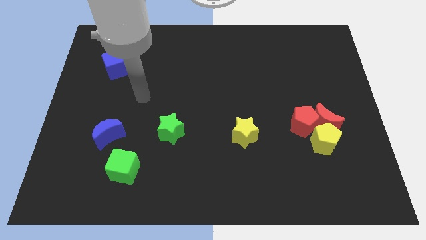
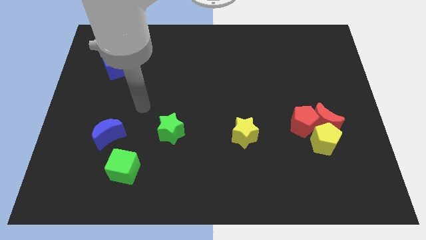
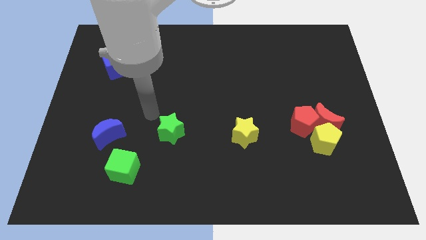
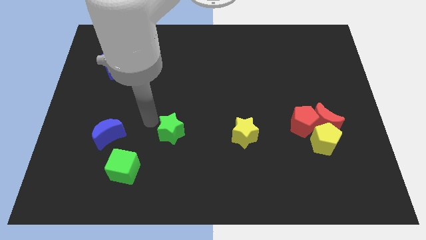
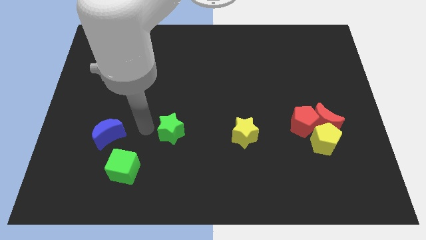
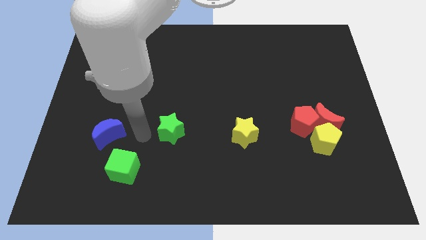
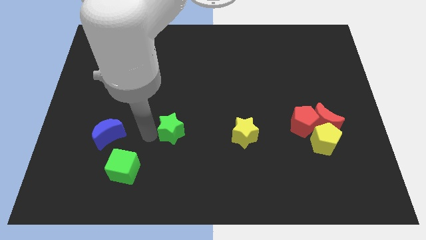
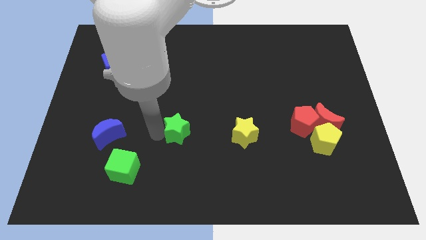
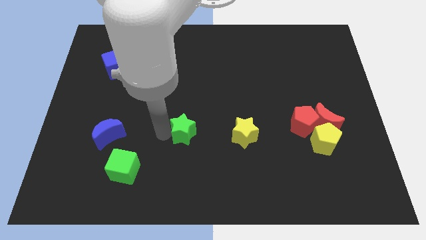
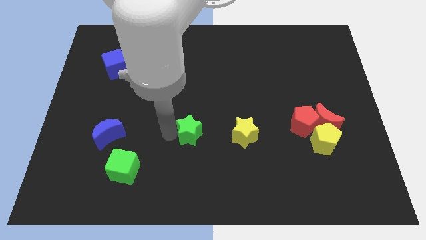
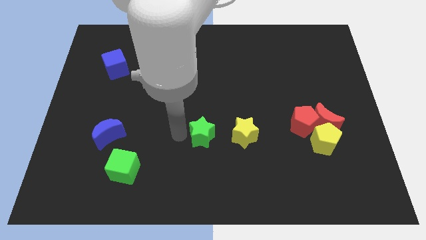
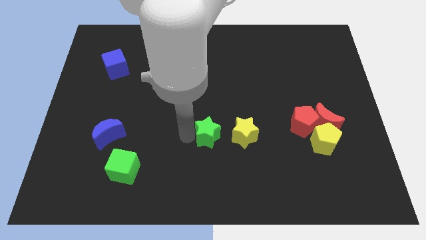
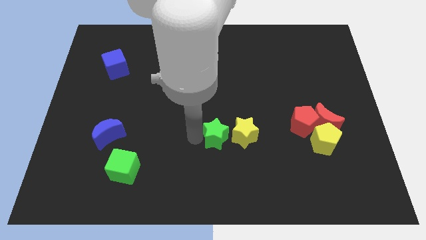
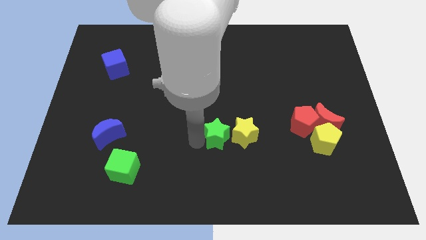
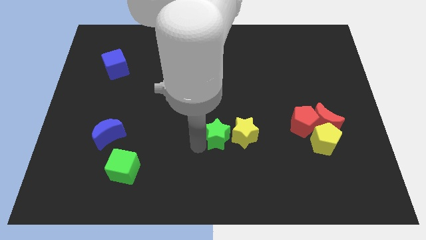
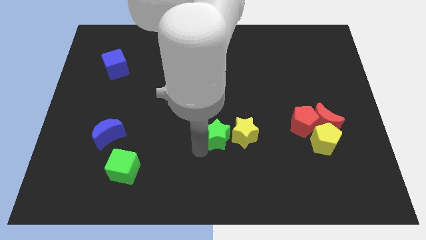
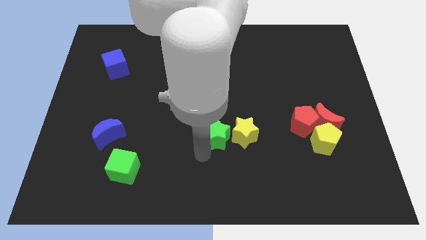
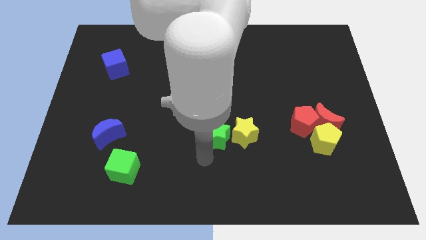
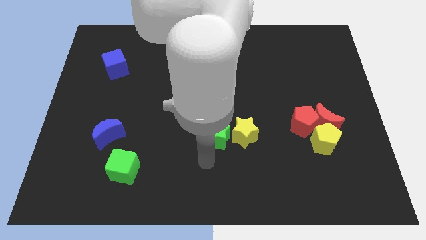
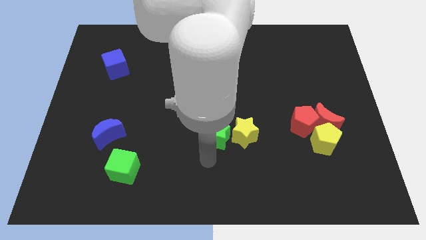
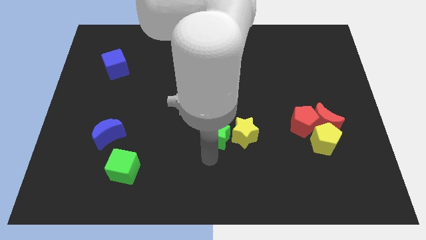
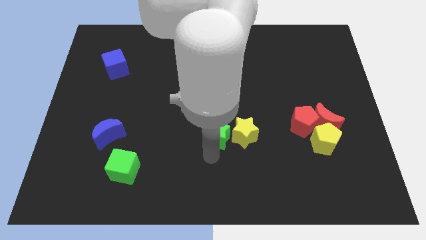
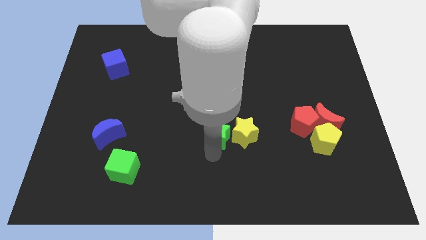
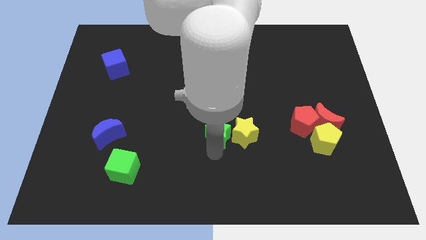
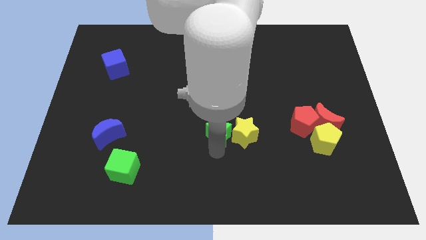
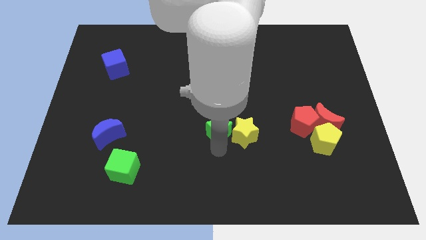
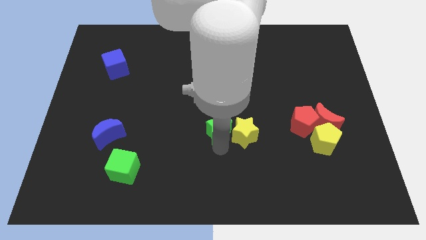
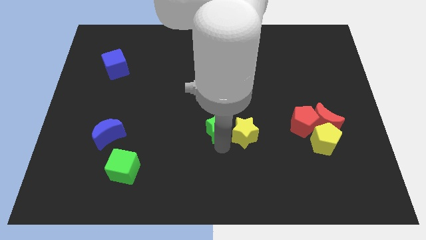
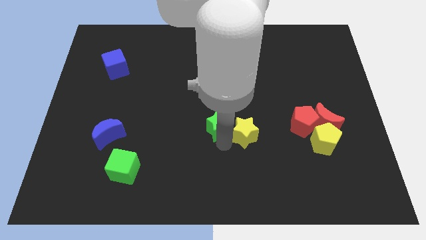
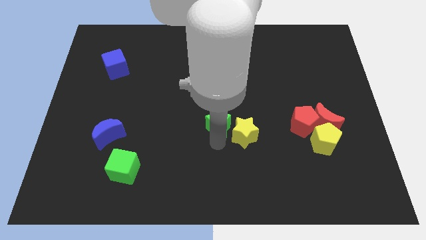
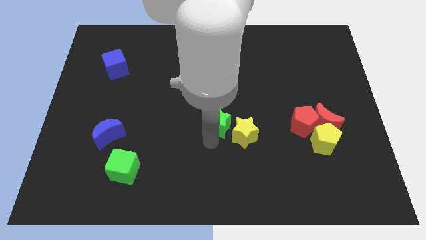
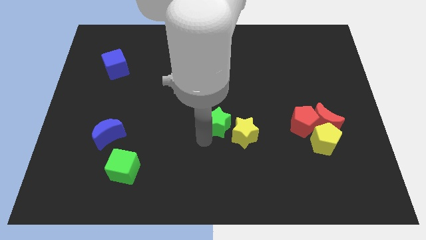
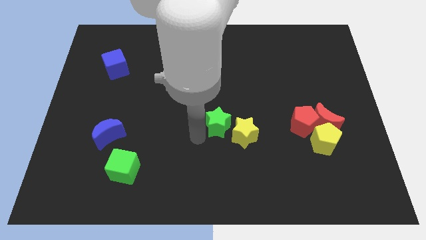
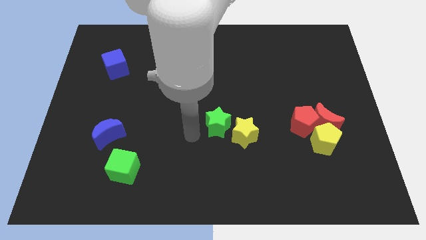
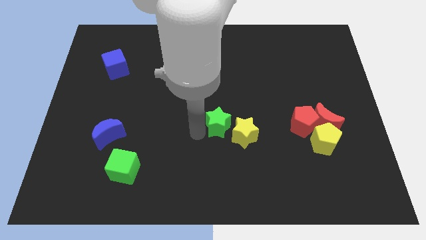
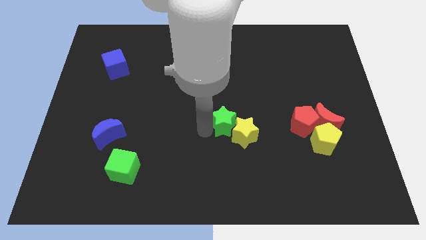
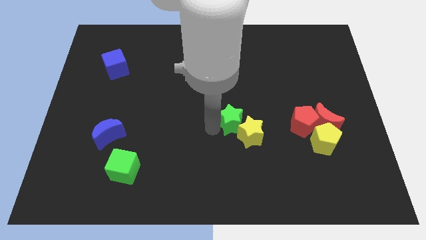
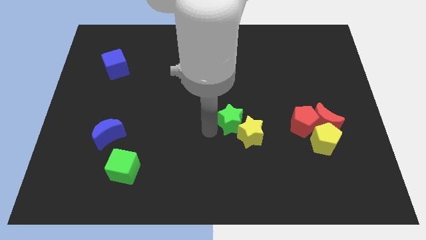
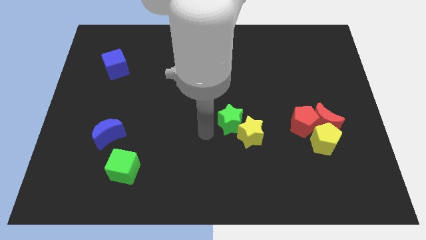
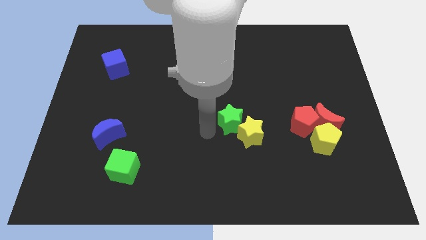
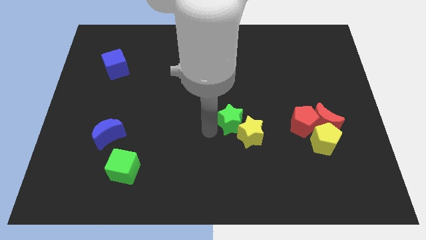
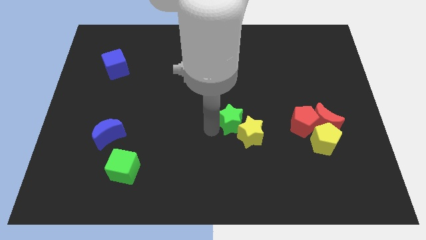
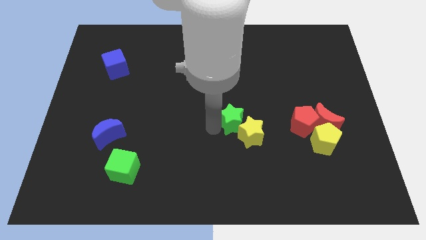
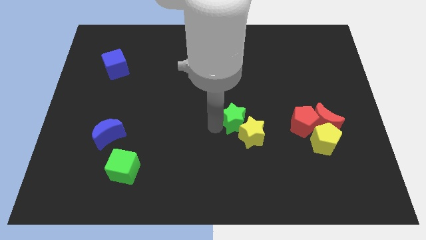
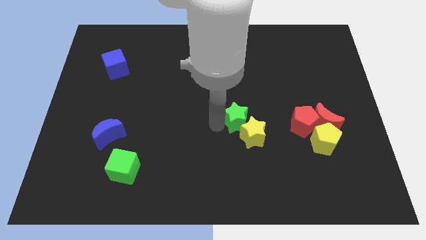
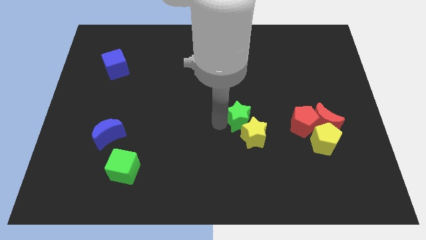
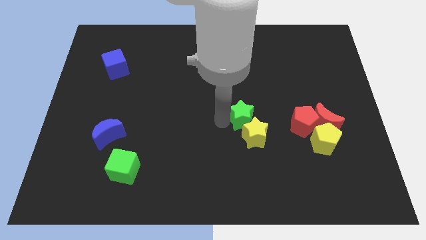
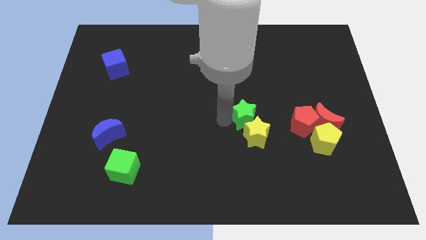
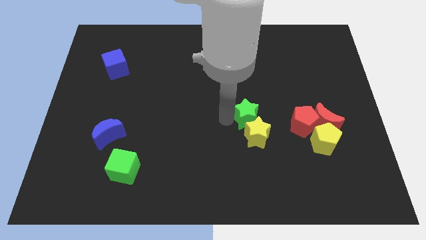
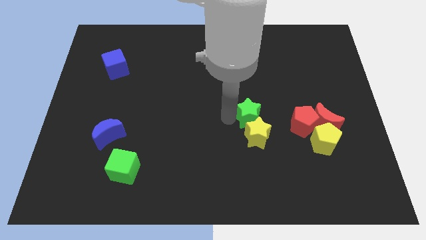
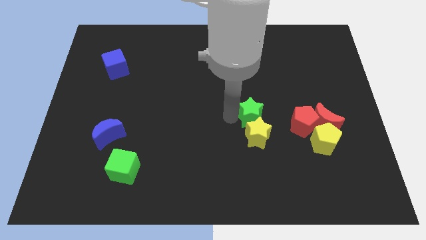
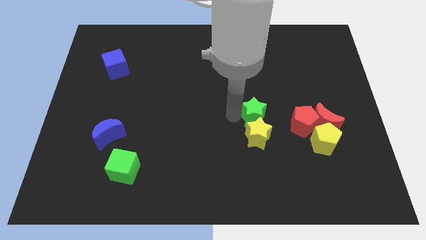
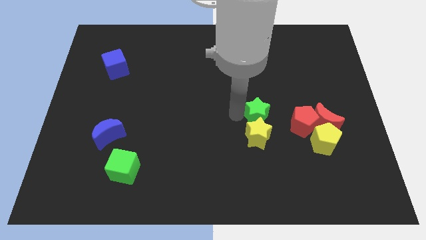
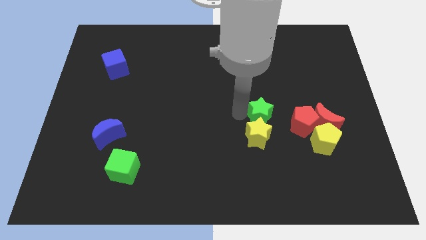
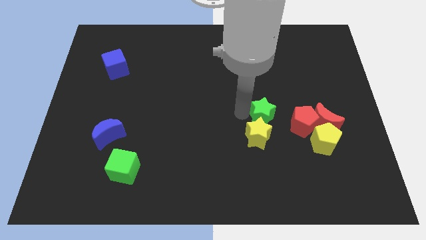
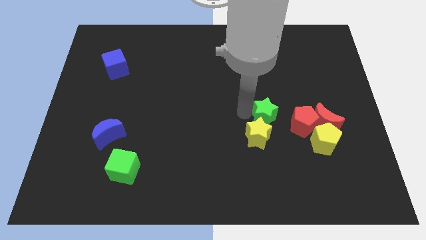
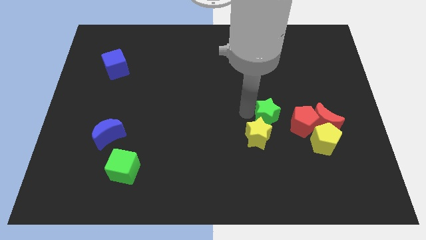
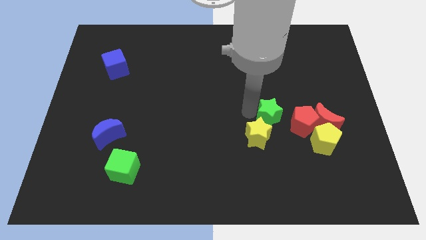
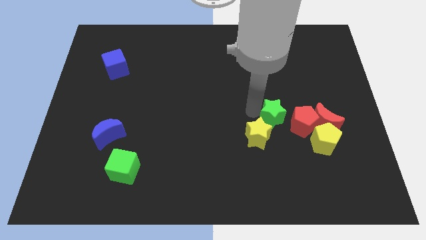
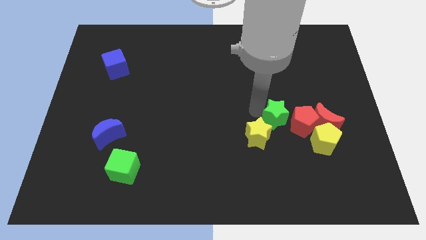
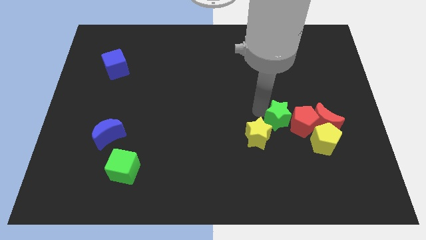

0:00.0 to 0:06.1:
slide the green star towards the red pentagon

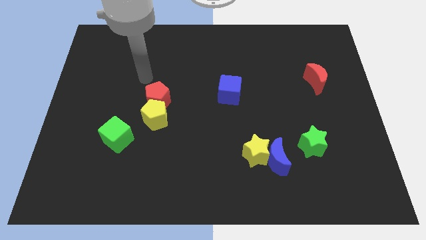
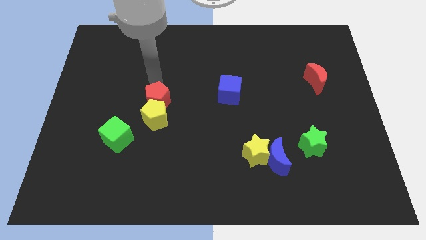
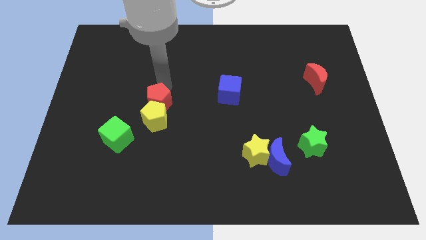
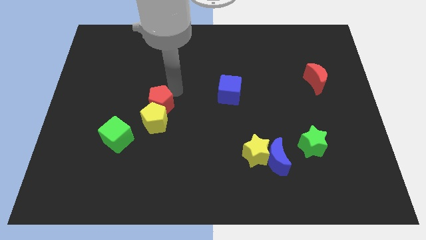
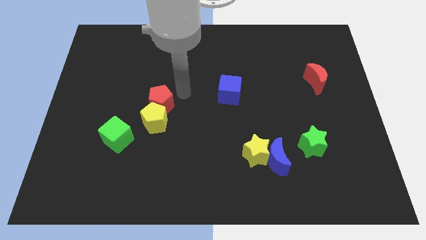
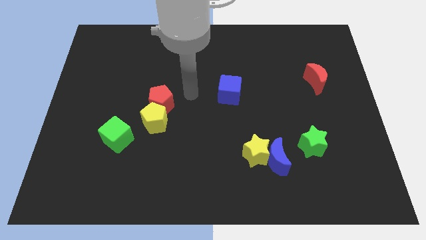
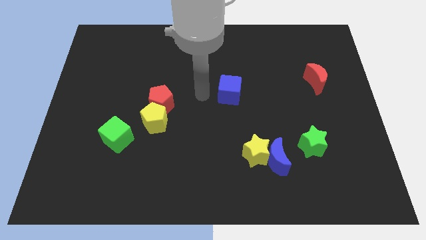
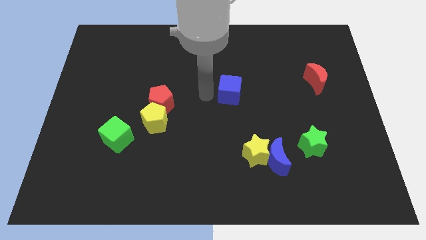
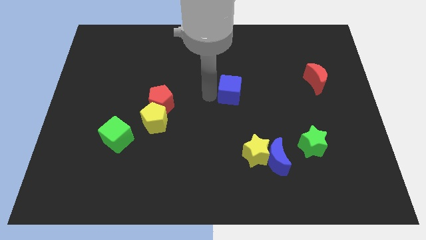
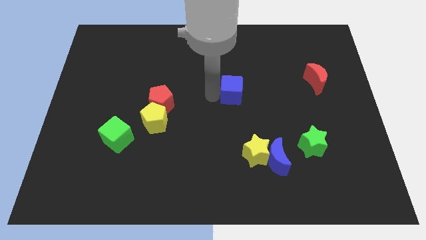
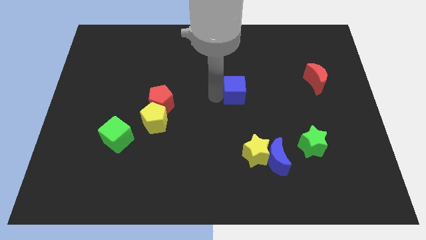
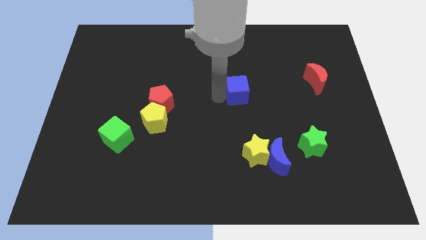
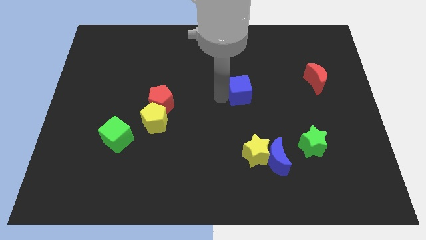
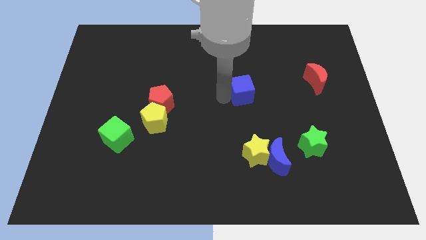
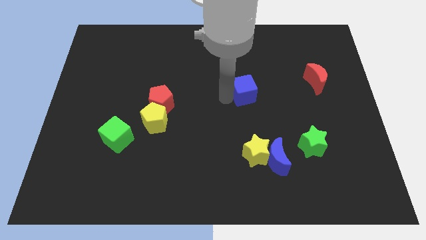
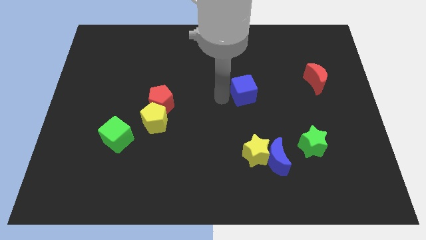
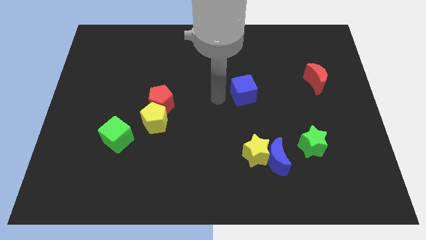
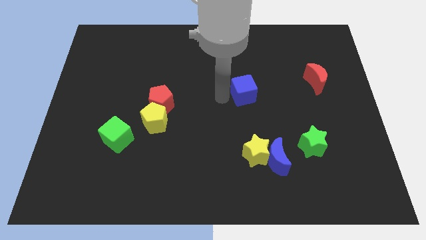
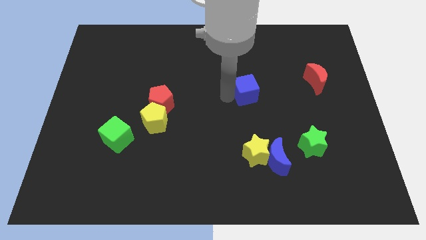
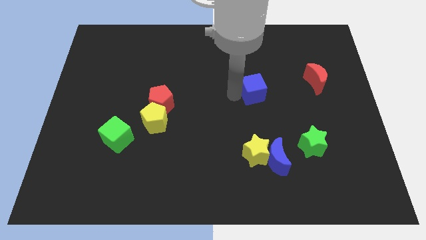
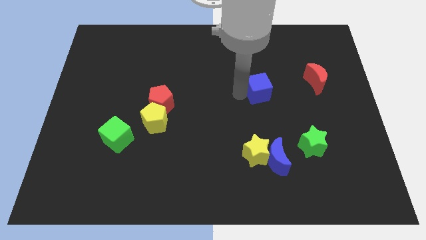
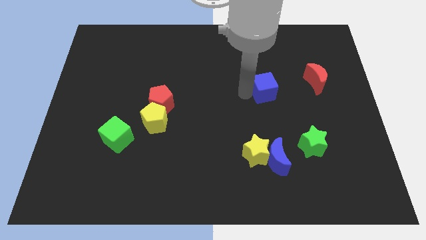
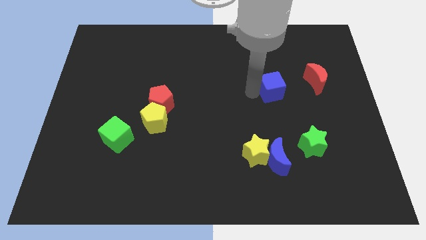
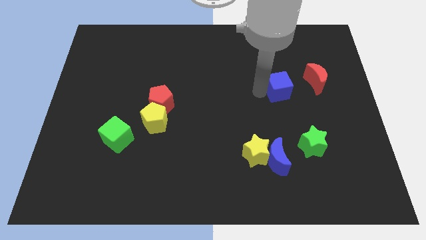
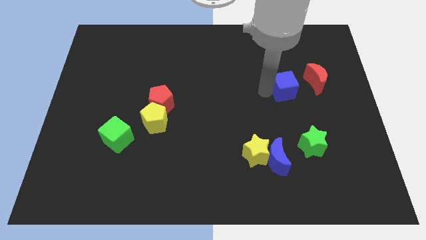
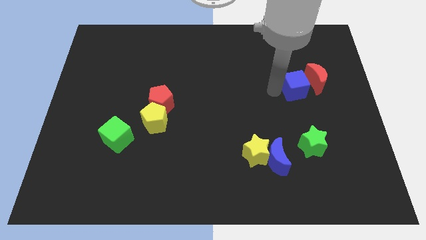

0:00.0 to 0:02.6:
move the blue cube close to the red moon
